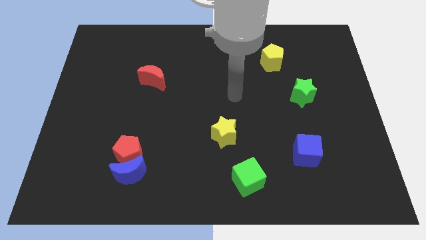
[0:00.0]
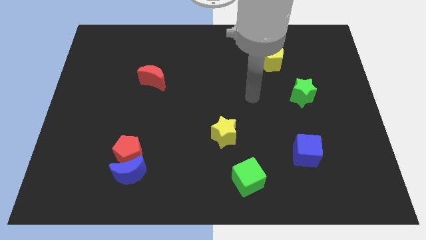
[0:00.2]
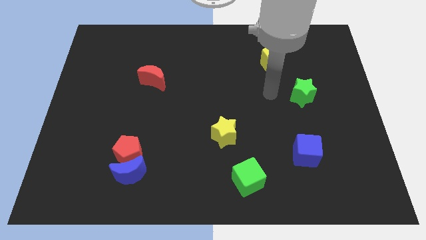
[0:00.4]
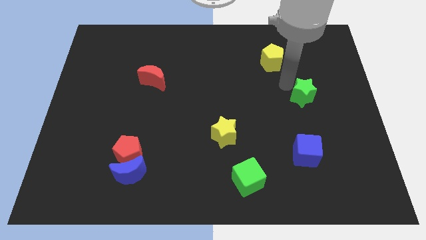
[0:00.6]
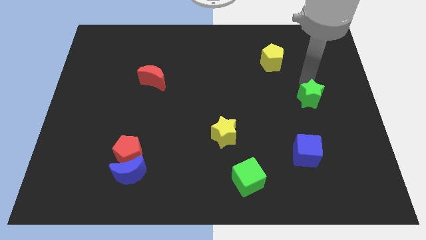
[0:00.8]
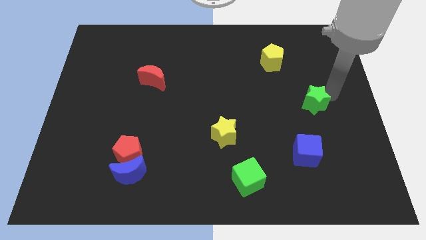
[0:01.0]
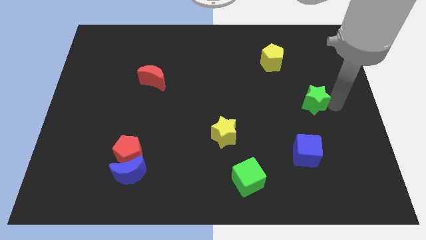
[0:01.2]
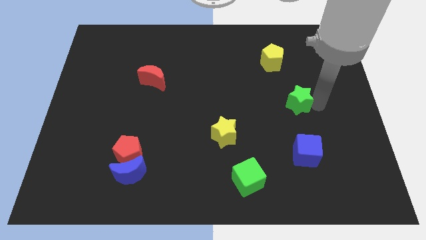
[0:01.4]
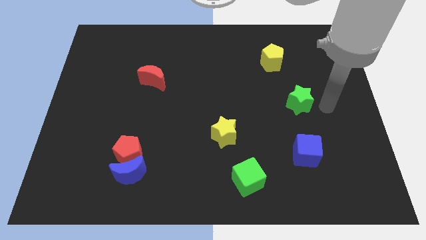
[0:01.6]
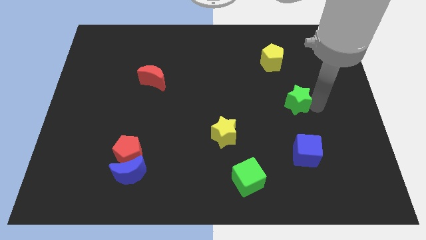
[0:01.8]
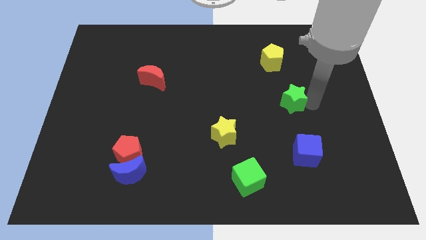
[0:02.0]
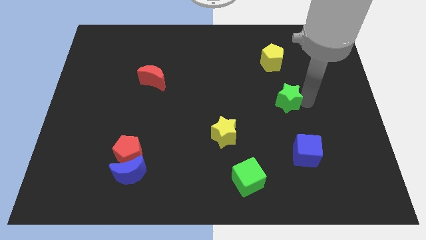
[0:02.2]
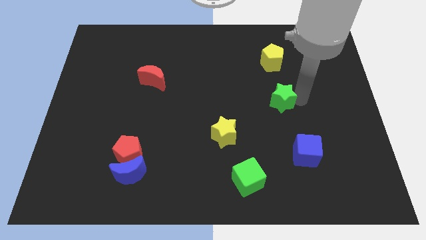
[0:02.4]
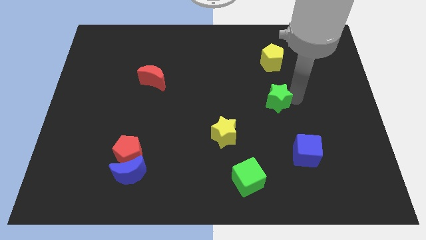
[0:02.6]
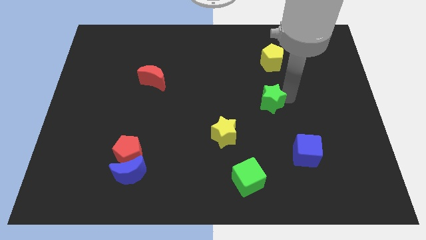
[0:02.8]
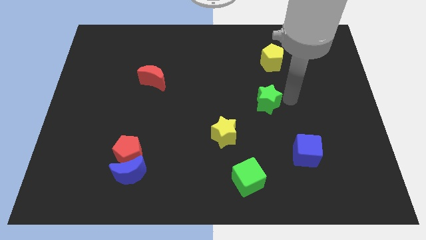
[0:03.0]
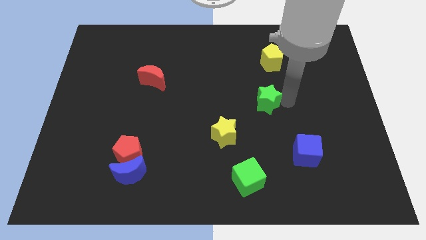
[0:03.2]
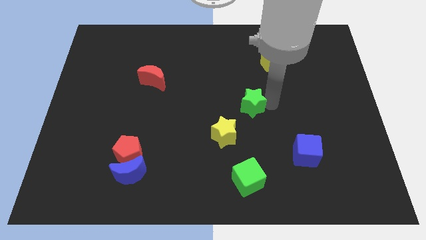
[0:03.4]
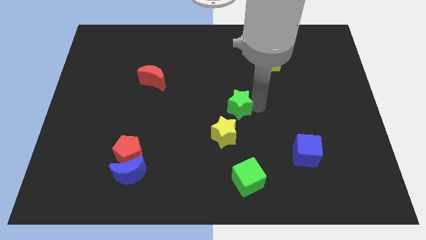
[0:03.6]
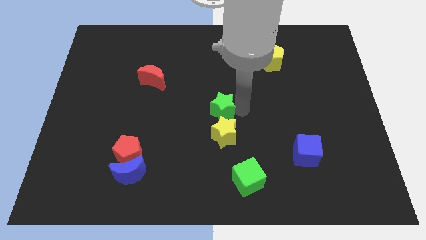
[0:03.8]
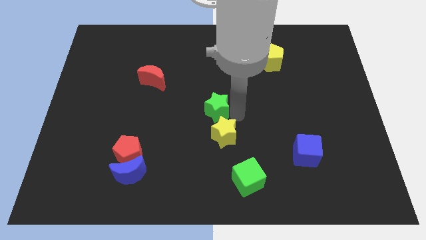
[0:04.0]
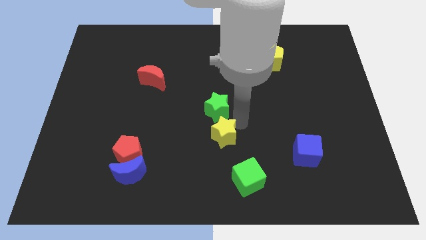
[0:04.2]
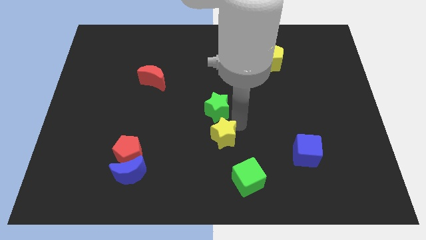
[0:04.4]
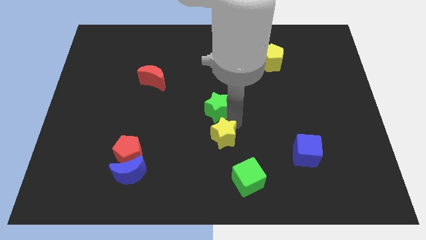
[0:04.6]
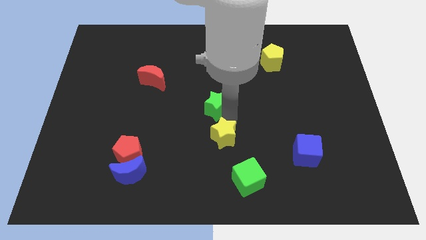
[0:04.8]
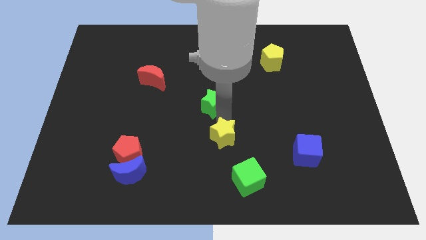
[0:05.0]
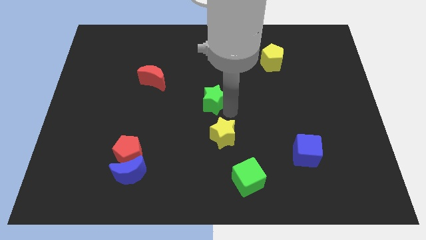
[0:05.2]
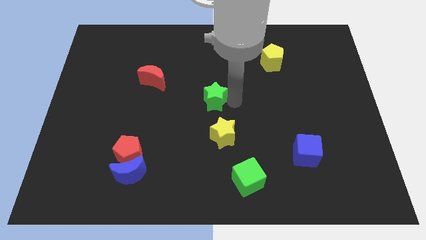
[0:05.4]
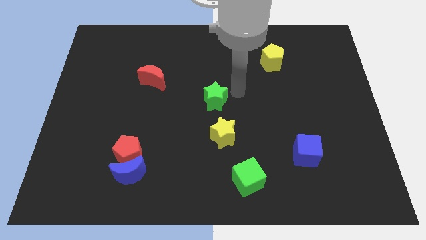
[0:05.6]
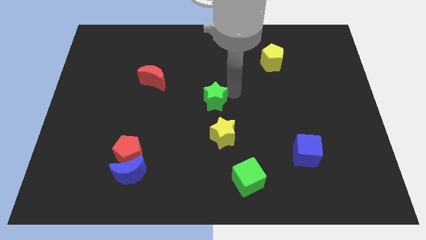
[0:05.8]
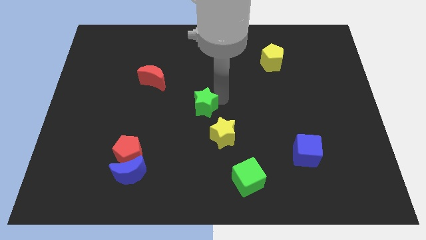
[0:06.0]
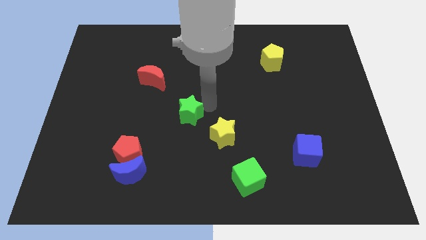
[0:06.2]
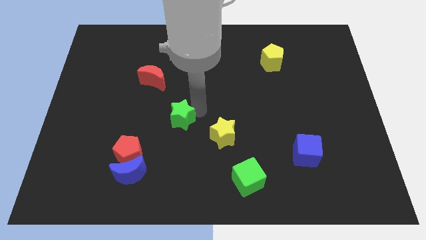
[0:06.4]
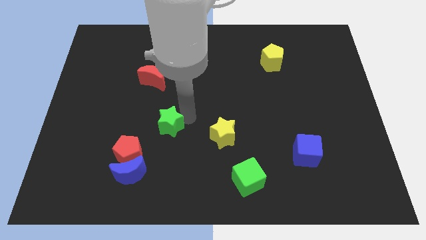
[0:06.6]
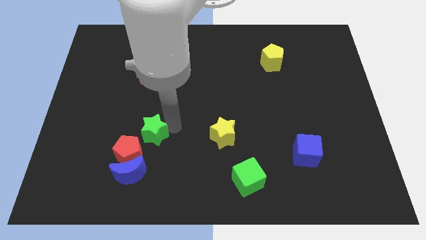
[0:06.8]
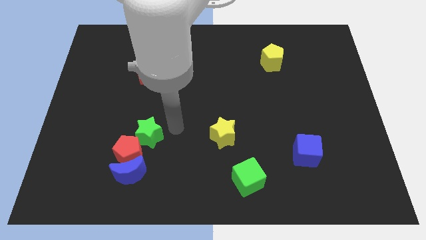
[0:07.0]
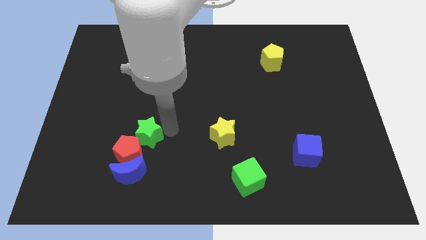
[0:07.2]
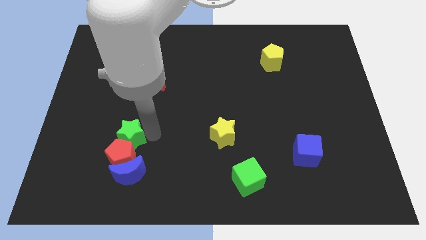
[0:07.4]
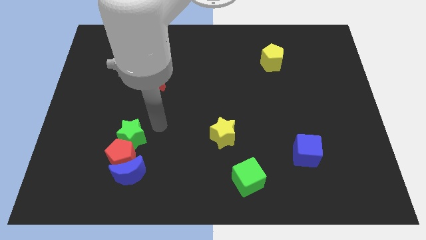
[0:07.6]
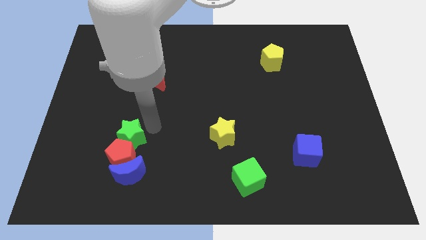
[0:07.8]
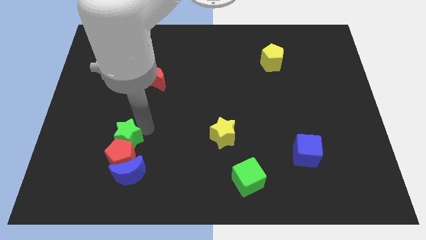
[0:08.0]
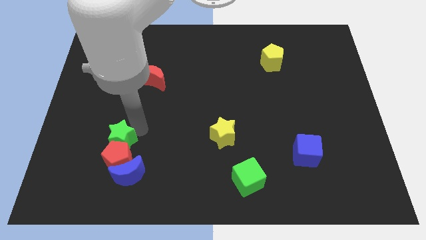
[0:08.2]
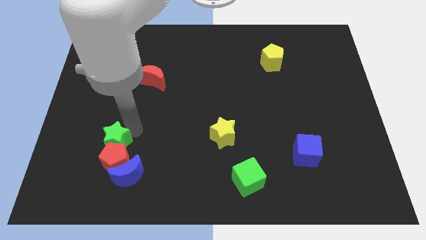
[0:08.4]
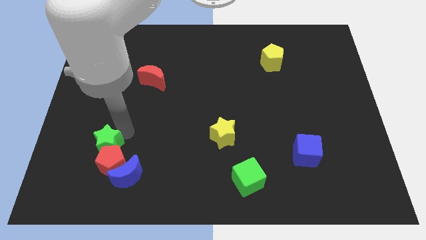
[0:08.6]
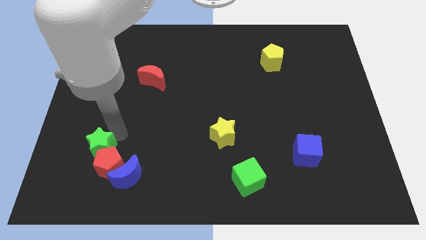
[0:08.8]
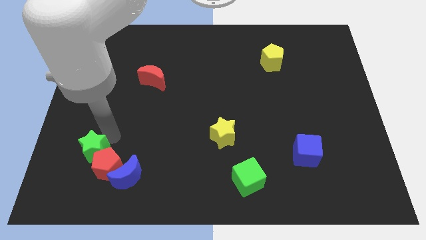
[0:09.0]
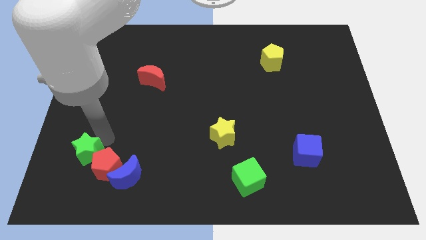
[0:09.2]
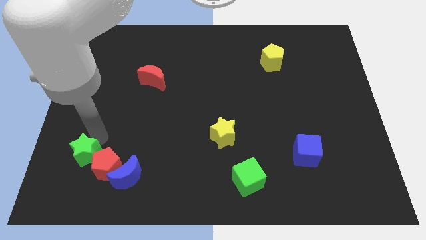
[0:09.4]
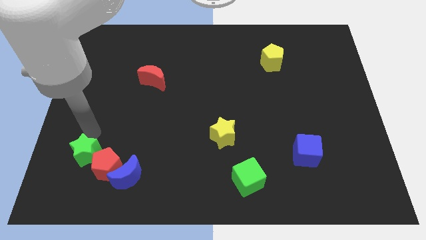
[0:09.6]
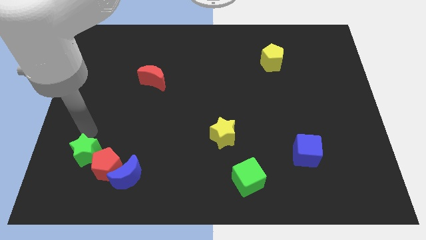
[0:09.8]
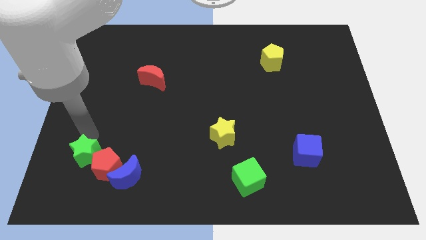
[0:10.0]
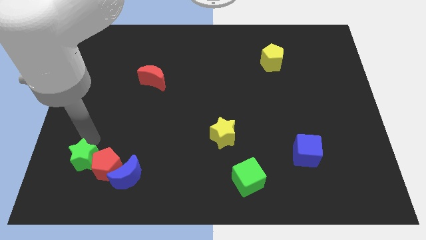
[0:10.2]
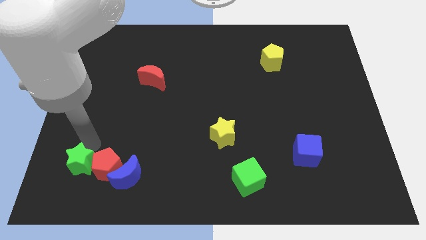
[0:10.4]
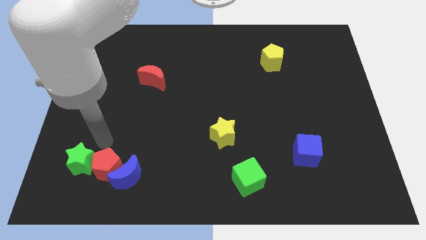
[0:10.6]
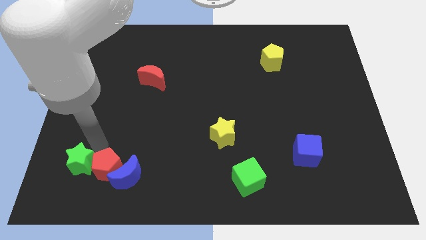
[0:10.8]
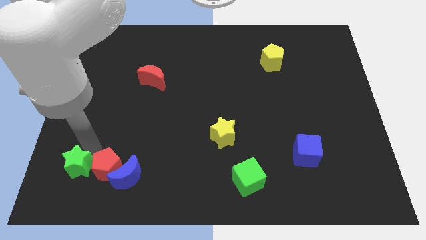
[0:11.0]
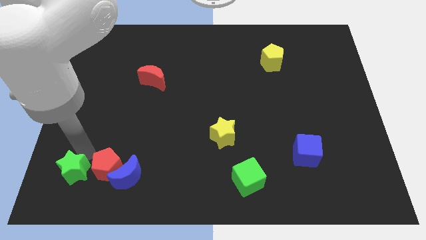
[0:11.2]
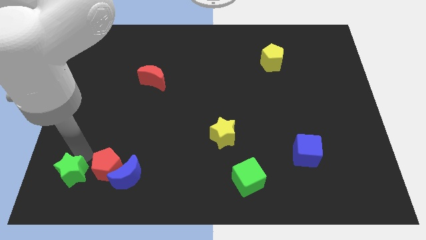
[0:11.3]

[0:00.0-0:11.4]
slide the green star to the bottom left

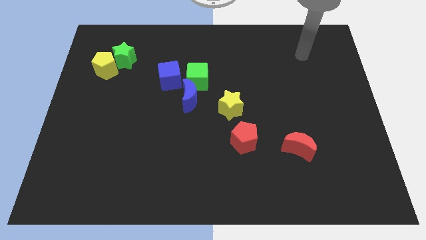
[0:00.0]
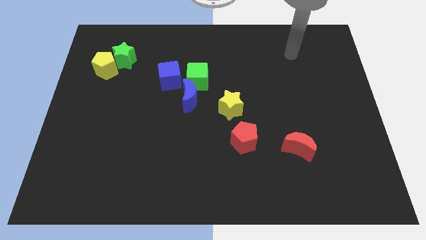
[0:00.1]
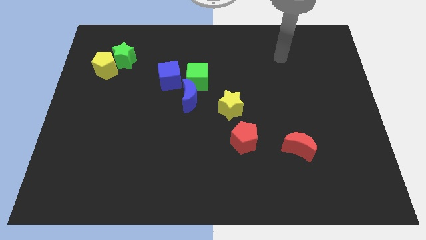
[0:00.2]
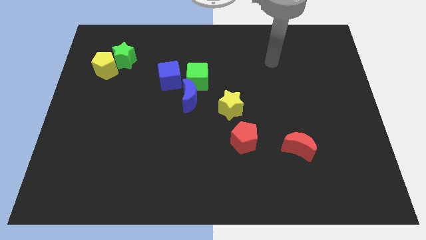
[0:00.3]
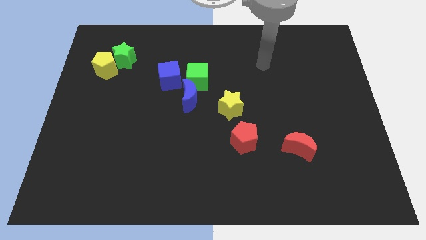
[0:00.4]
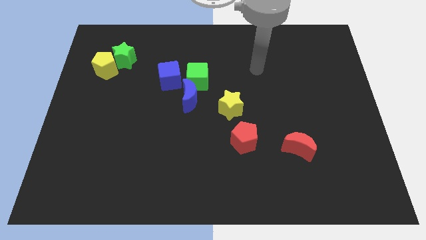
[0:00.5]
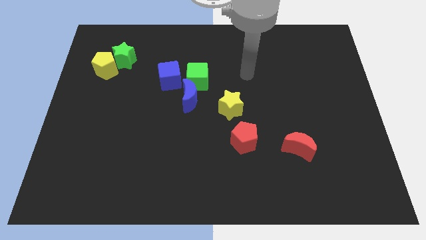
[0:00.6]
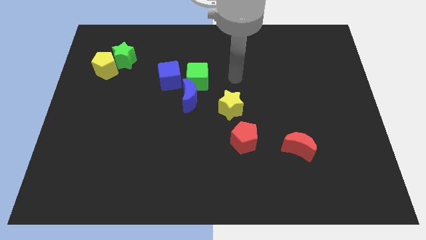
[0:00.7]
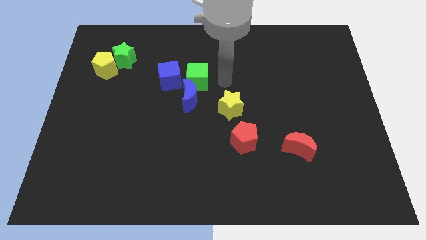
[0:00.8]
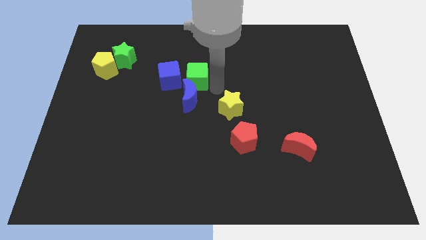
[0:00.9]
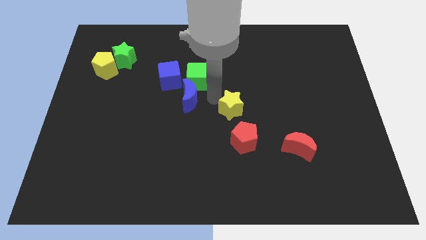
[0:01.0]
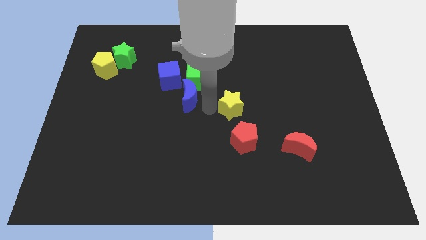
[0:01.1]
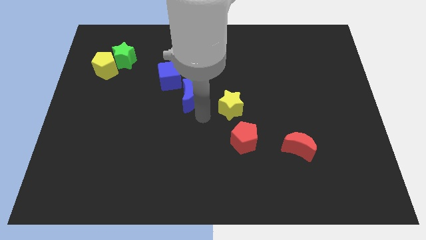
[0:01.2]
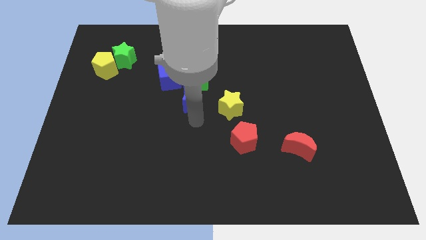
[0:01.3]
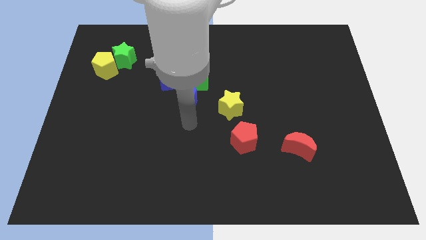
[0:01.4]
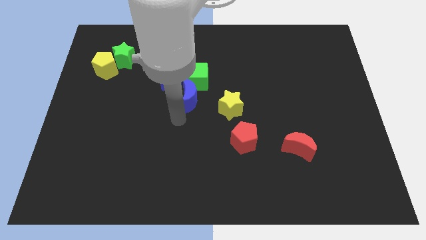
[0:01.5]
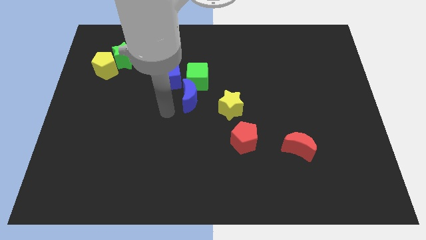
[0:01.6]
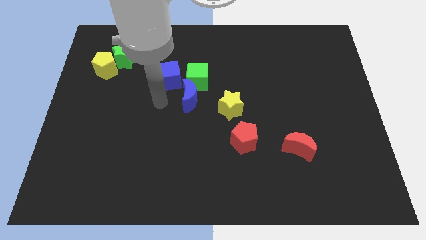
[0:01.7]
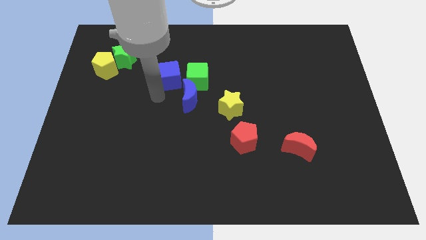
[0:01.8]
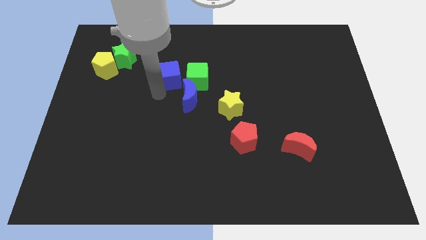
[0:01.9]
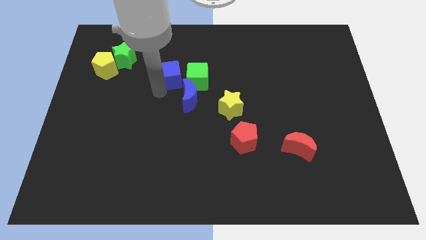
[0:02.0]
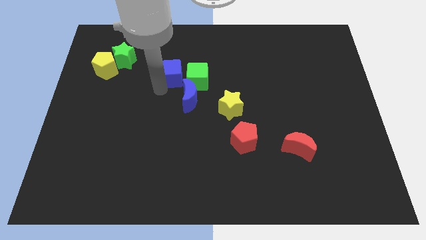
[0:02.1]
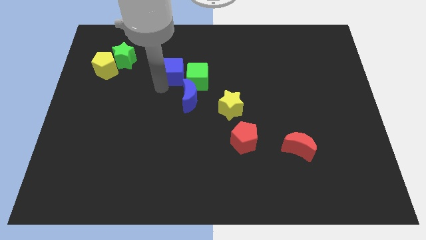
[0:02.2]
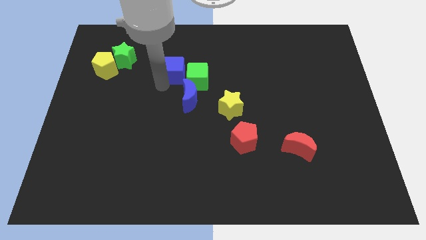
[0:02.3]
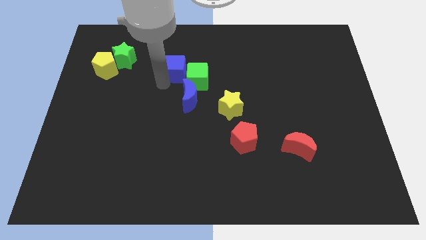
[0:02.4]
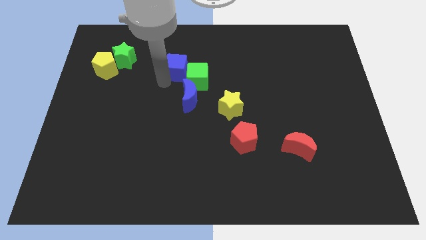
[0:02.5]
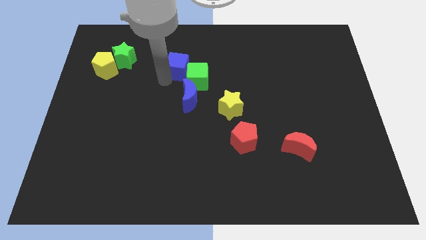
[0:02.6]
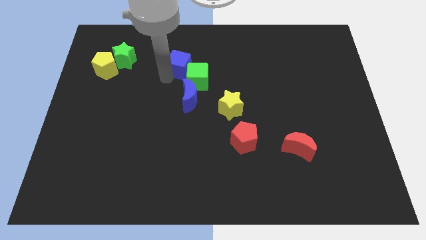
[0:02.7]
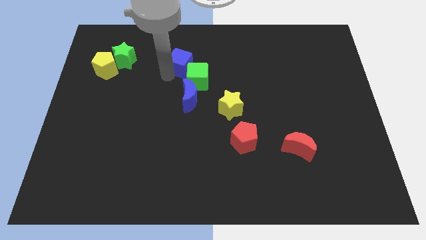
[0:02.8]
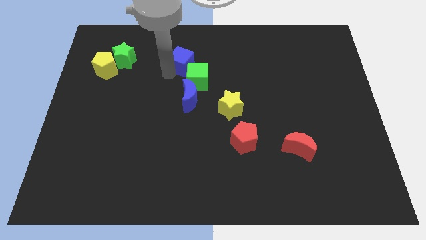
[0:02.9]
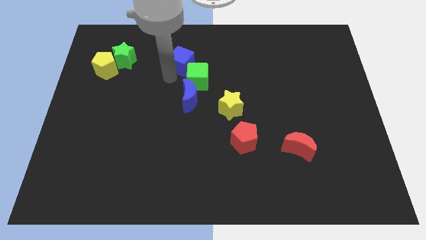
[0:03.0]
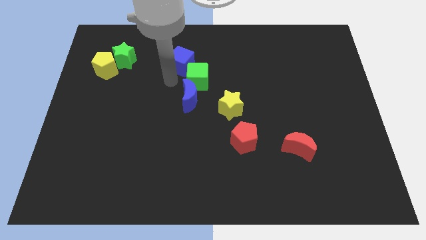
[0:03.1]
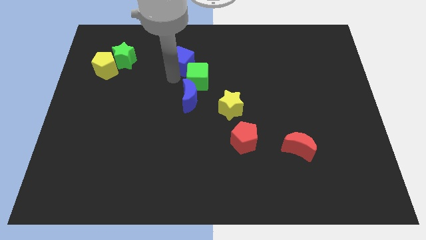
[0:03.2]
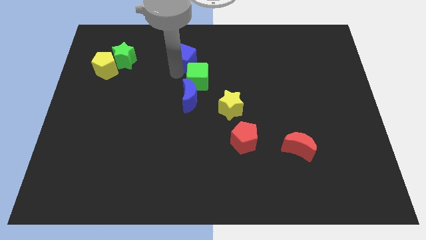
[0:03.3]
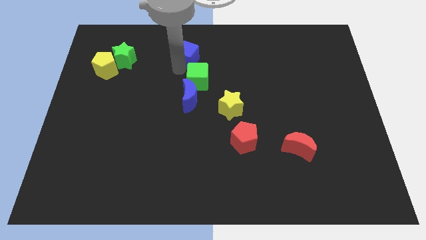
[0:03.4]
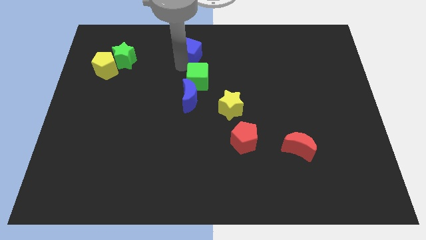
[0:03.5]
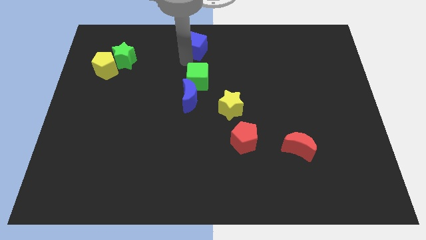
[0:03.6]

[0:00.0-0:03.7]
put the blue cube to the top
